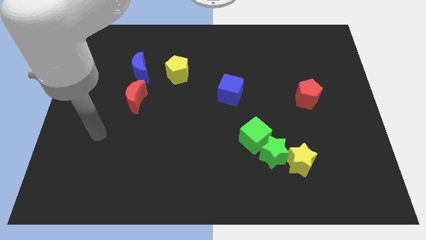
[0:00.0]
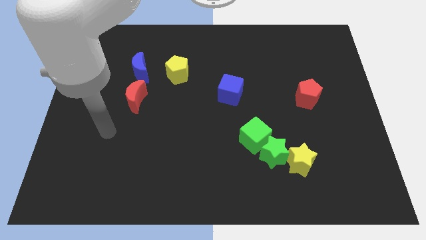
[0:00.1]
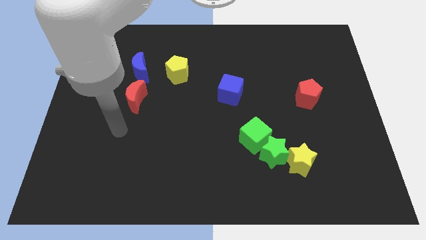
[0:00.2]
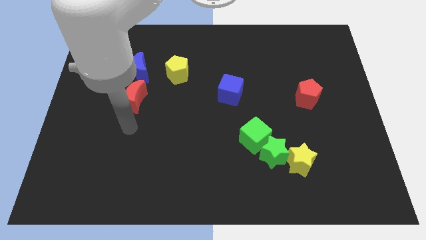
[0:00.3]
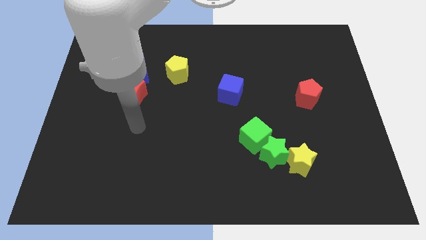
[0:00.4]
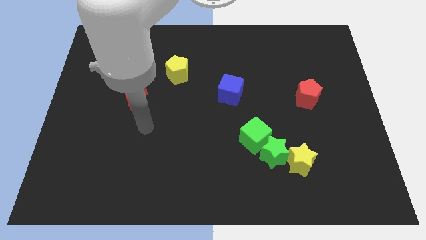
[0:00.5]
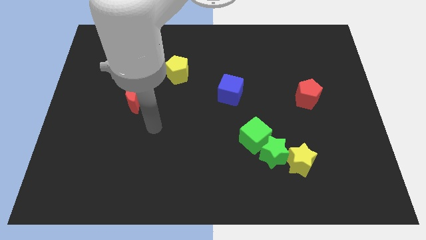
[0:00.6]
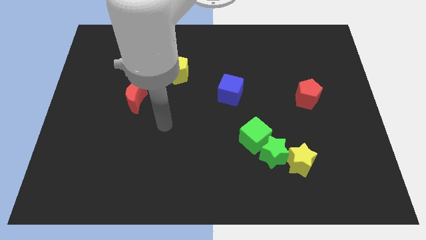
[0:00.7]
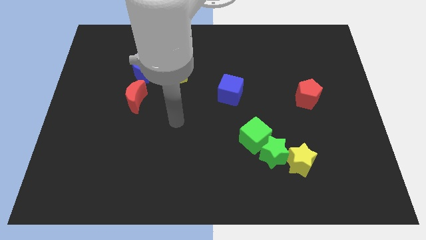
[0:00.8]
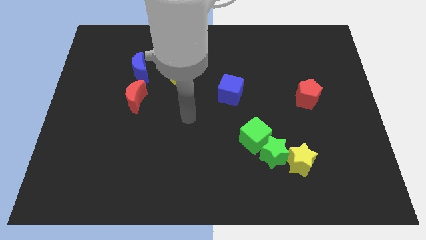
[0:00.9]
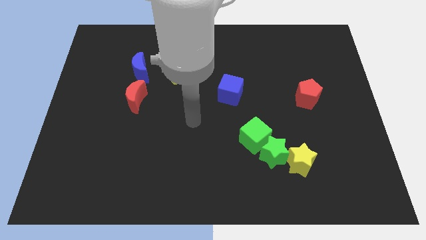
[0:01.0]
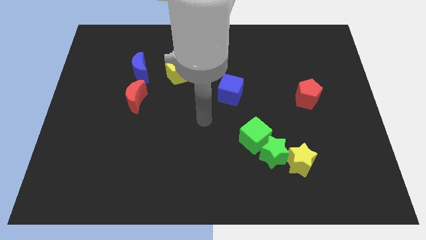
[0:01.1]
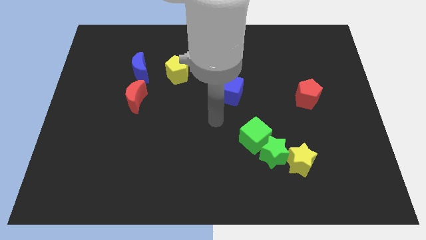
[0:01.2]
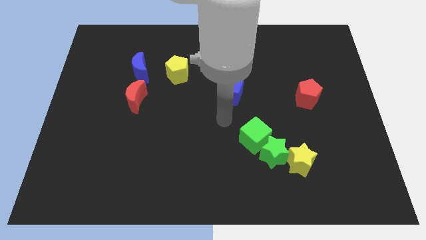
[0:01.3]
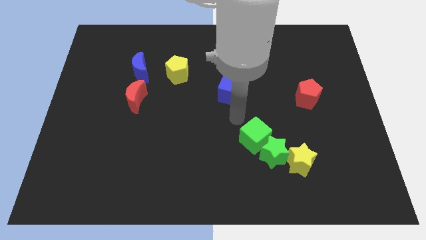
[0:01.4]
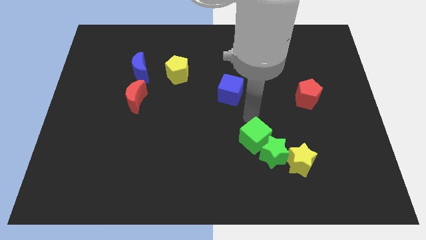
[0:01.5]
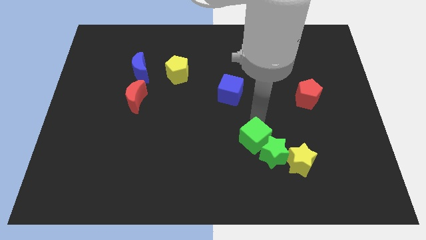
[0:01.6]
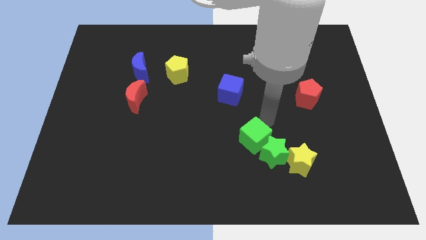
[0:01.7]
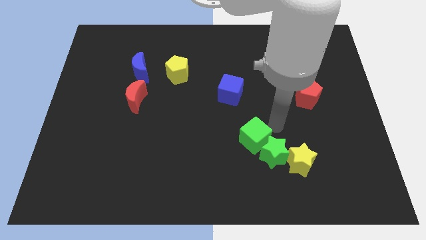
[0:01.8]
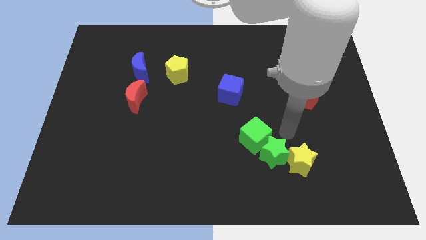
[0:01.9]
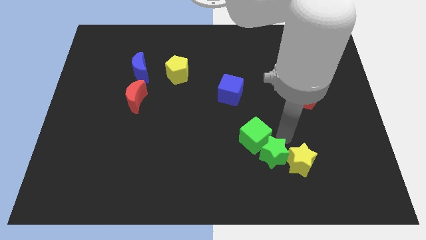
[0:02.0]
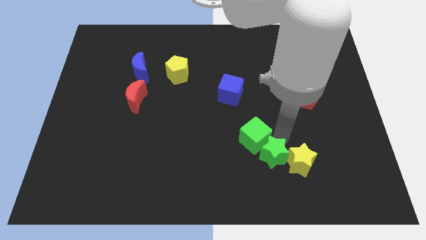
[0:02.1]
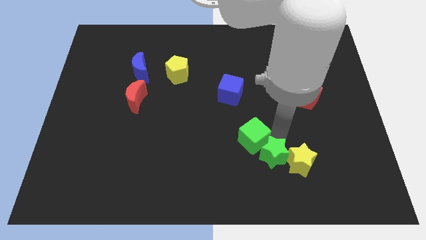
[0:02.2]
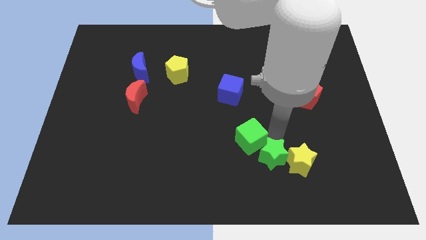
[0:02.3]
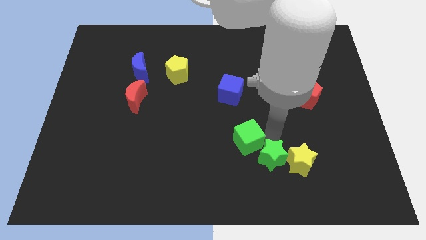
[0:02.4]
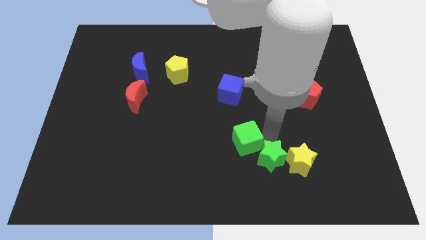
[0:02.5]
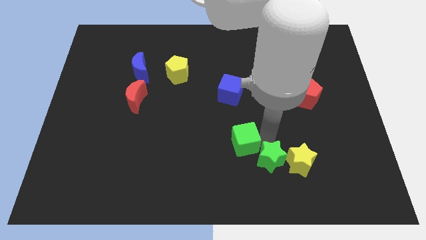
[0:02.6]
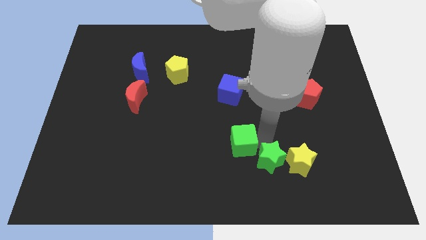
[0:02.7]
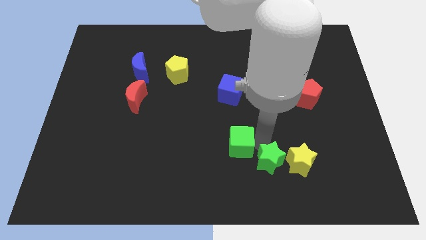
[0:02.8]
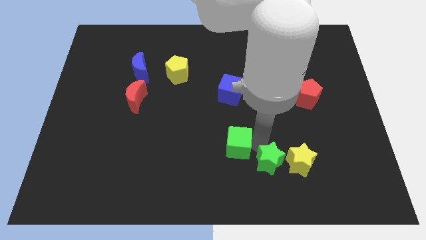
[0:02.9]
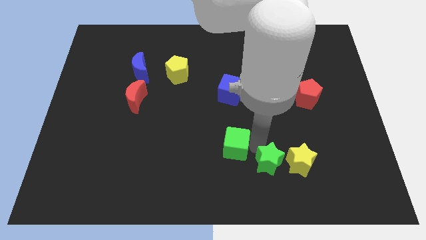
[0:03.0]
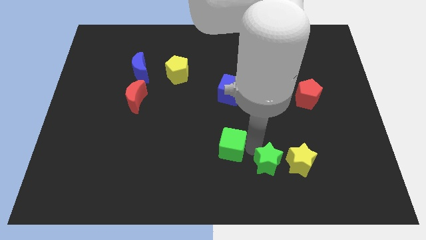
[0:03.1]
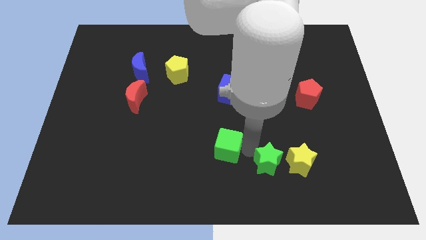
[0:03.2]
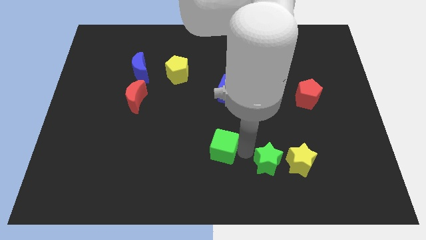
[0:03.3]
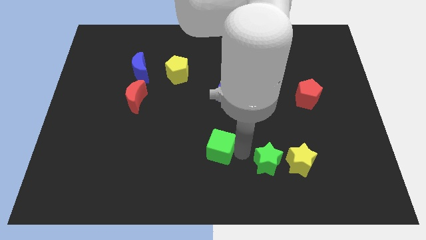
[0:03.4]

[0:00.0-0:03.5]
slightly move the green cube to the left

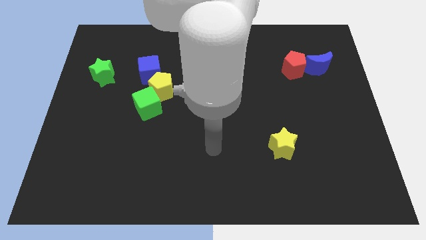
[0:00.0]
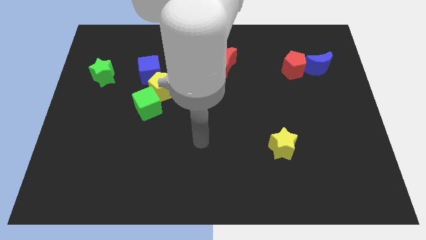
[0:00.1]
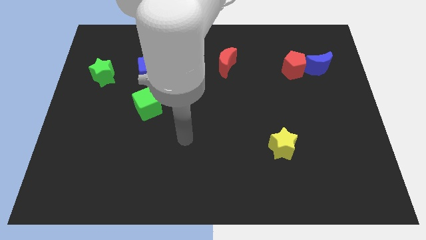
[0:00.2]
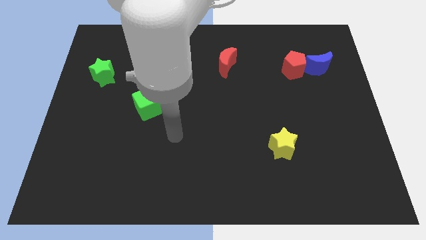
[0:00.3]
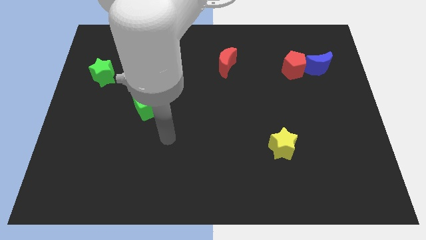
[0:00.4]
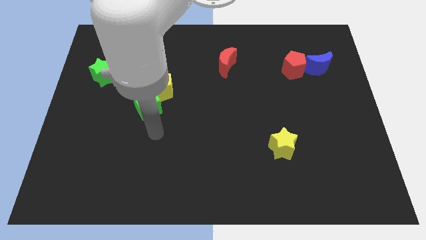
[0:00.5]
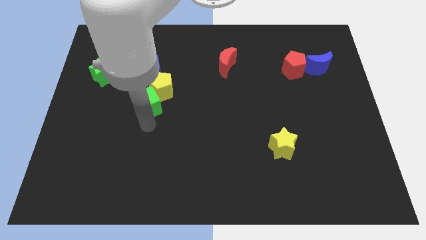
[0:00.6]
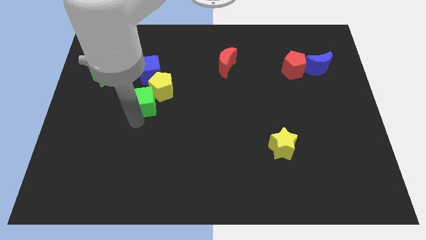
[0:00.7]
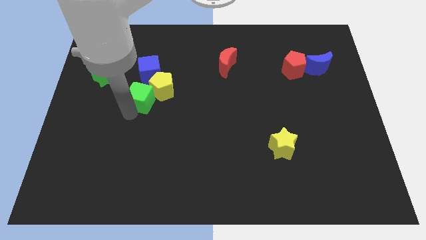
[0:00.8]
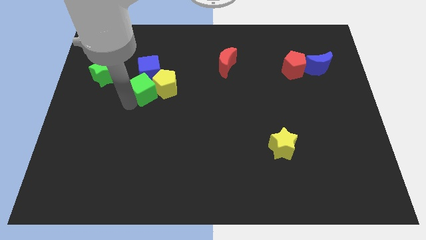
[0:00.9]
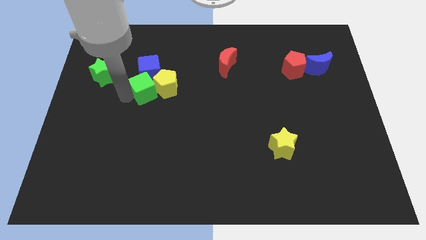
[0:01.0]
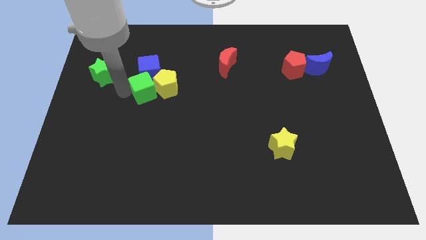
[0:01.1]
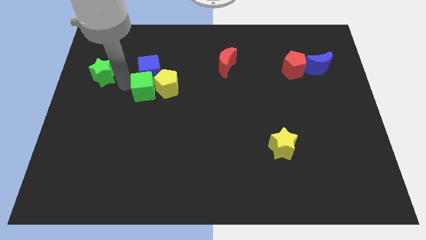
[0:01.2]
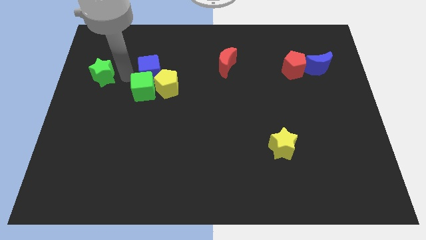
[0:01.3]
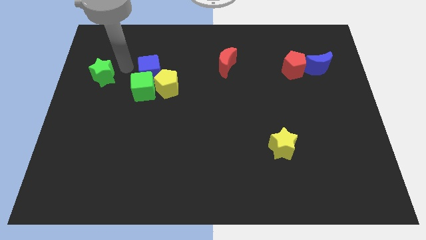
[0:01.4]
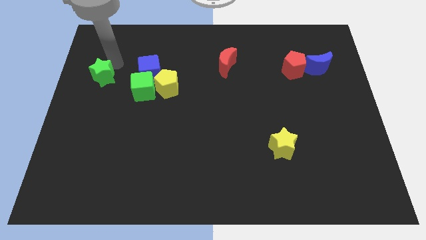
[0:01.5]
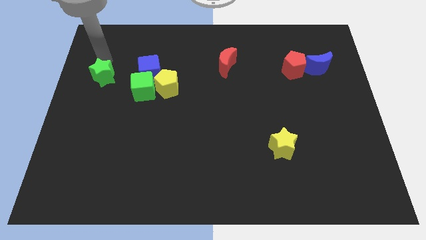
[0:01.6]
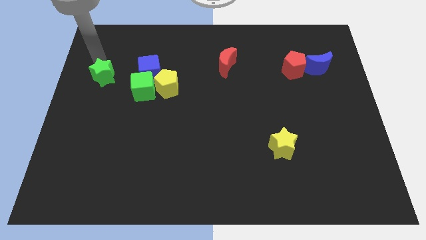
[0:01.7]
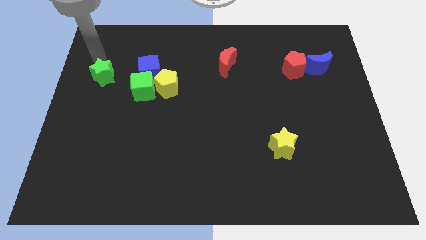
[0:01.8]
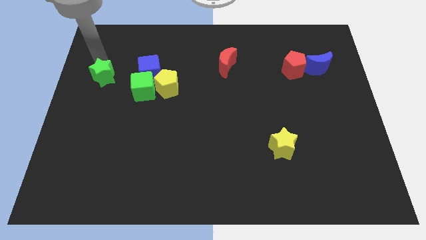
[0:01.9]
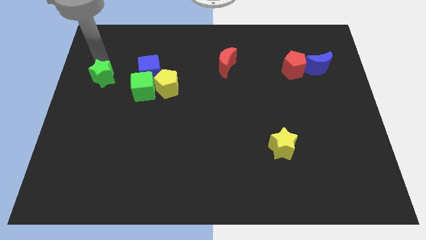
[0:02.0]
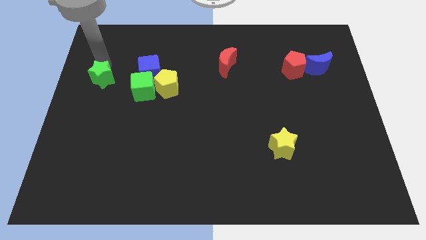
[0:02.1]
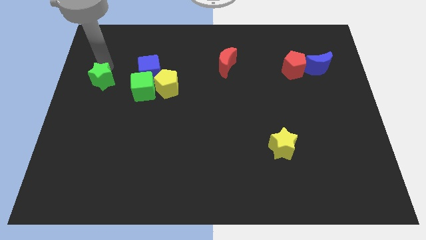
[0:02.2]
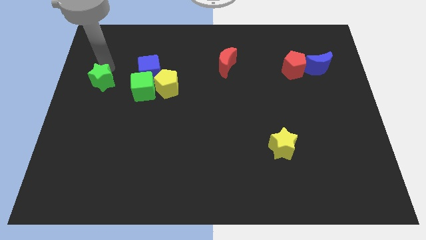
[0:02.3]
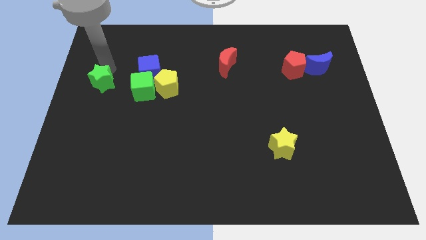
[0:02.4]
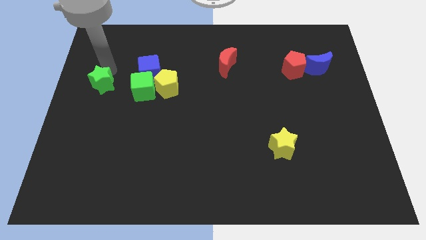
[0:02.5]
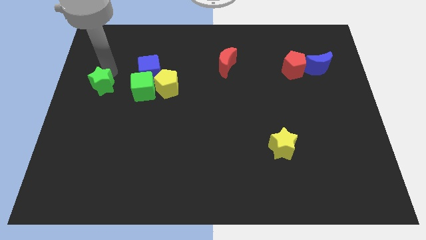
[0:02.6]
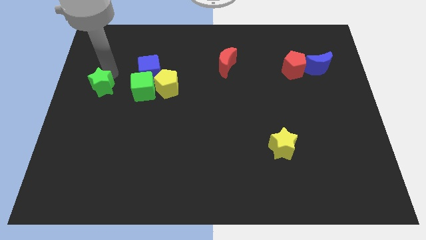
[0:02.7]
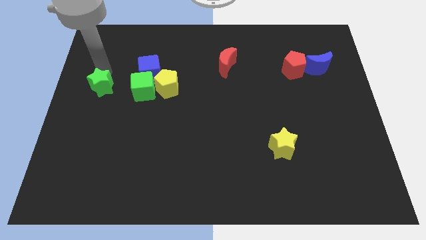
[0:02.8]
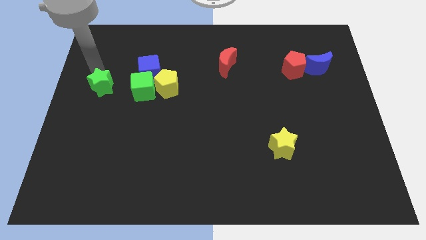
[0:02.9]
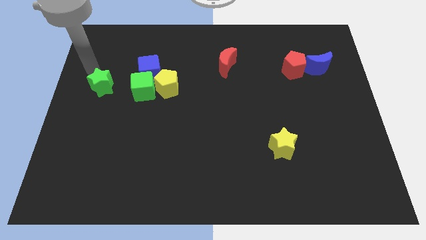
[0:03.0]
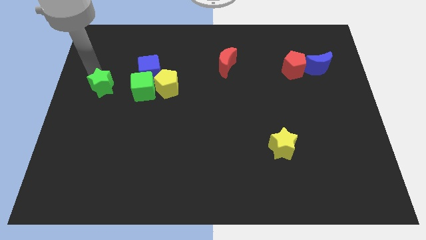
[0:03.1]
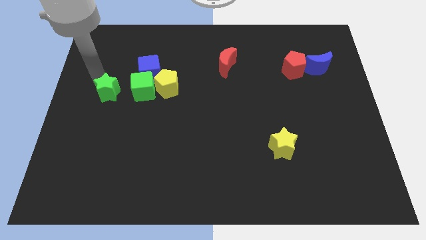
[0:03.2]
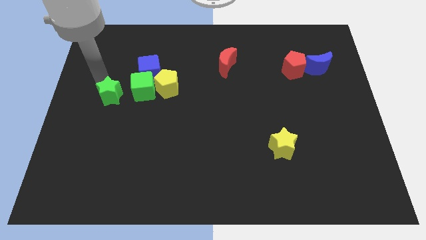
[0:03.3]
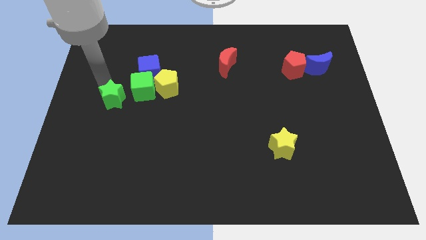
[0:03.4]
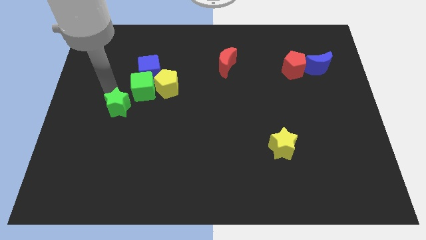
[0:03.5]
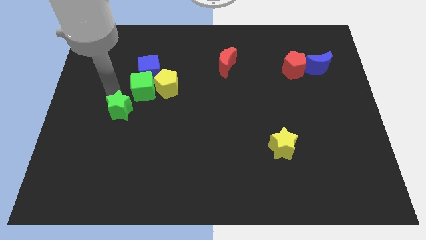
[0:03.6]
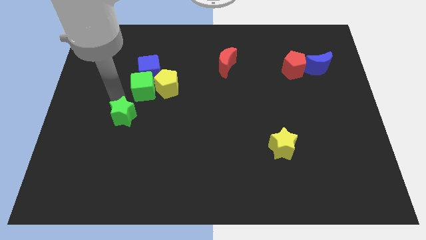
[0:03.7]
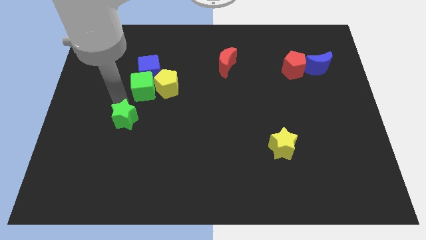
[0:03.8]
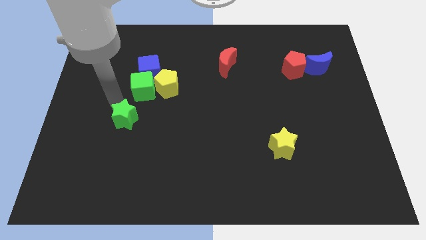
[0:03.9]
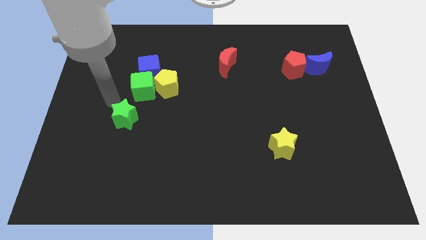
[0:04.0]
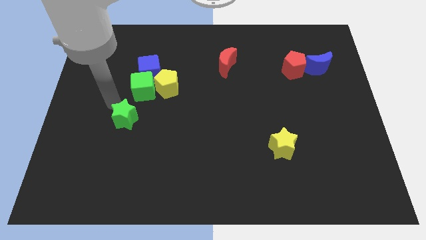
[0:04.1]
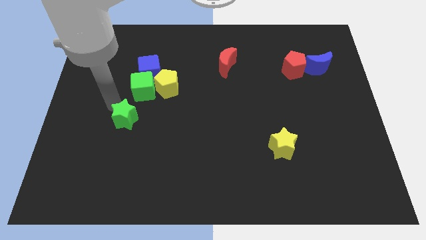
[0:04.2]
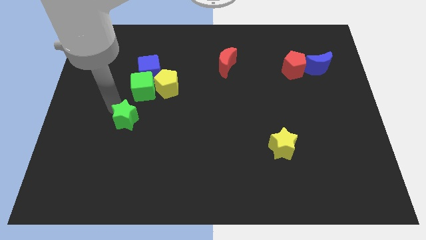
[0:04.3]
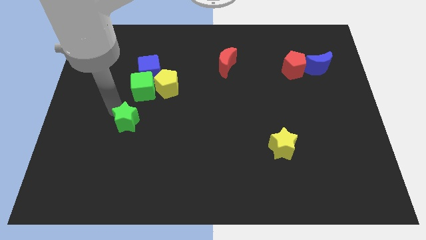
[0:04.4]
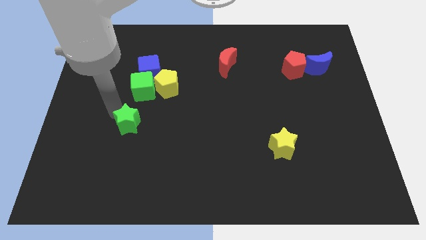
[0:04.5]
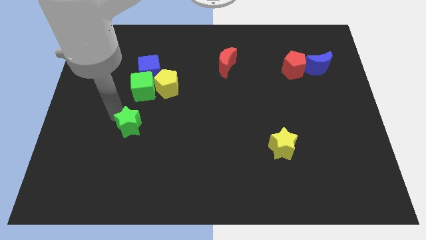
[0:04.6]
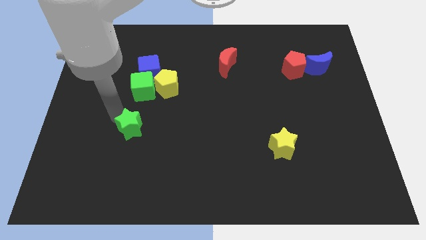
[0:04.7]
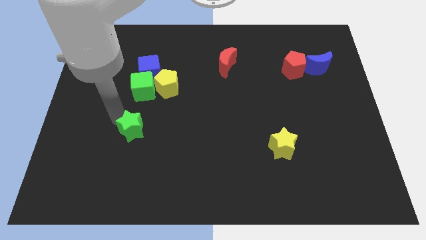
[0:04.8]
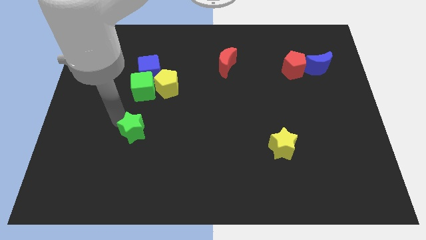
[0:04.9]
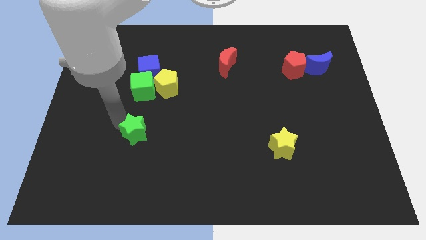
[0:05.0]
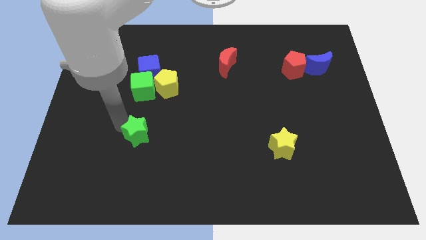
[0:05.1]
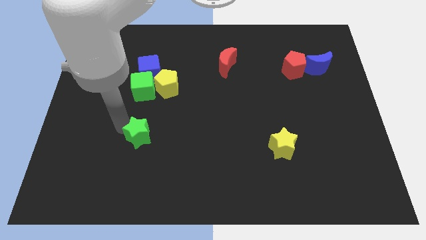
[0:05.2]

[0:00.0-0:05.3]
slide the green star downwards and then to the right
